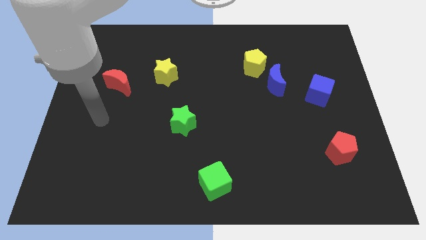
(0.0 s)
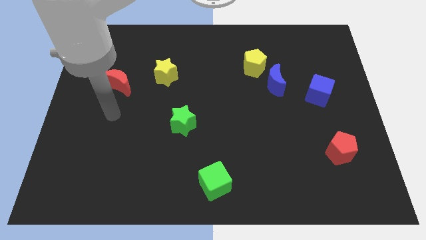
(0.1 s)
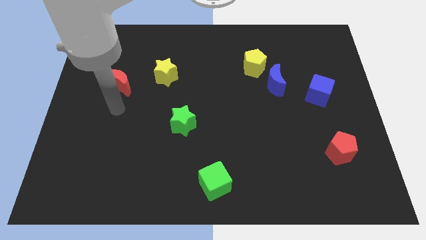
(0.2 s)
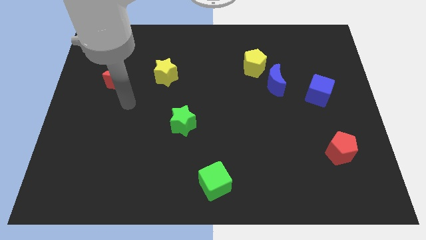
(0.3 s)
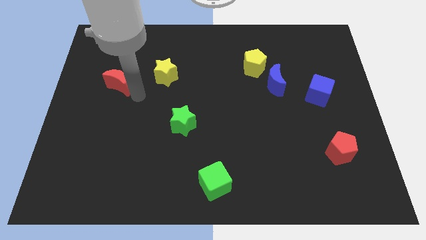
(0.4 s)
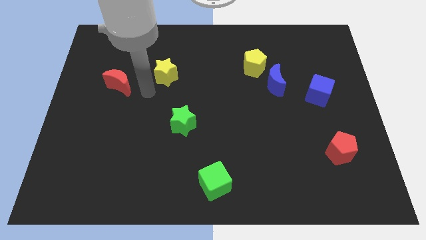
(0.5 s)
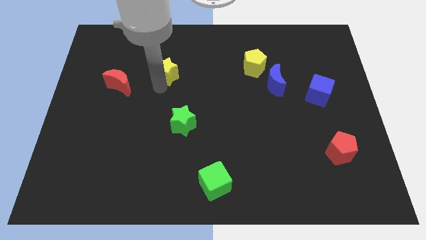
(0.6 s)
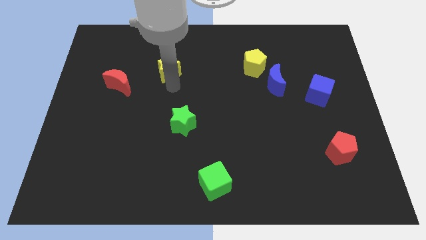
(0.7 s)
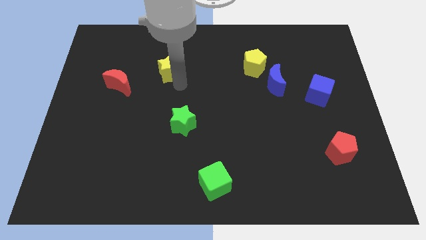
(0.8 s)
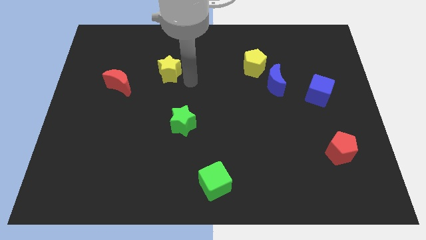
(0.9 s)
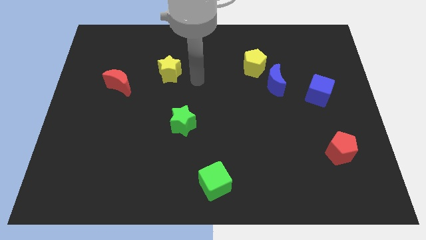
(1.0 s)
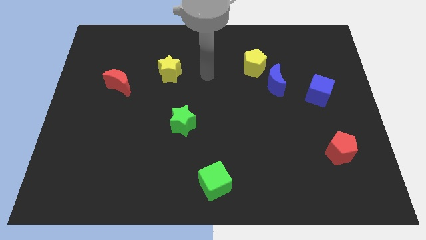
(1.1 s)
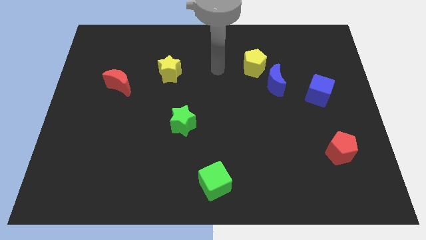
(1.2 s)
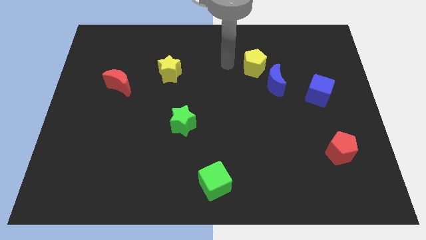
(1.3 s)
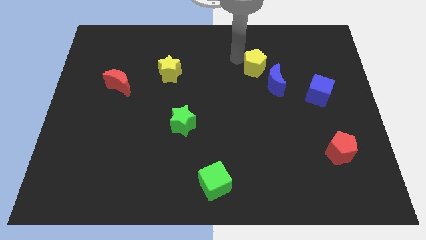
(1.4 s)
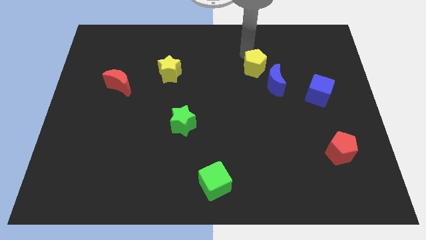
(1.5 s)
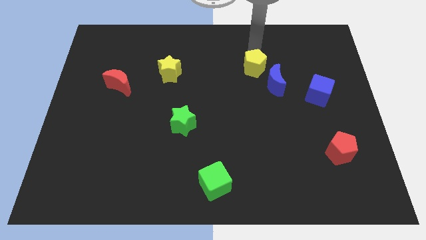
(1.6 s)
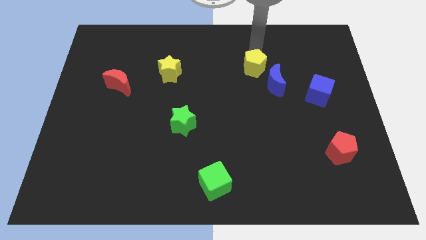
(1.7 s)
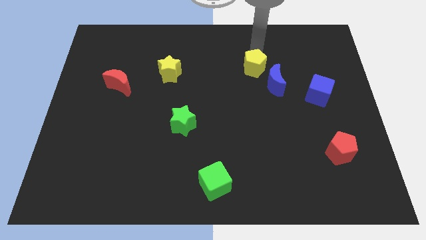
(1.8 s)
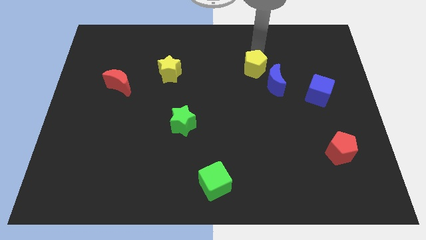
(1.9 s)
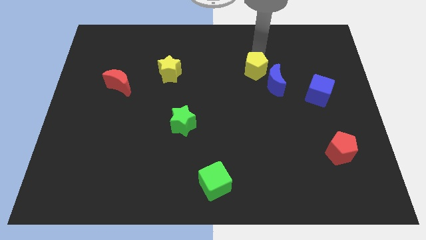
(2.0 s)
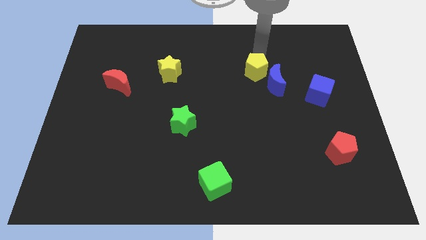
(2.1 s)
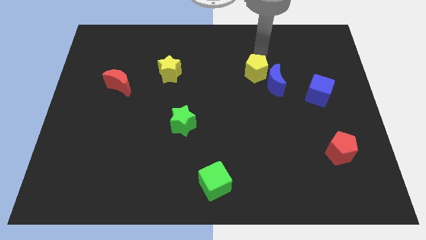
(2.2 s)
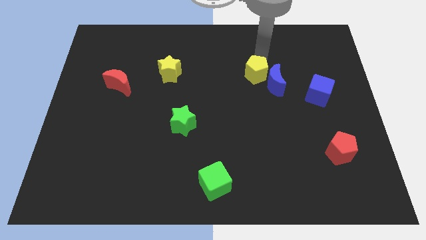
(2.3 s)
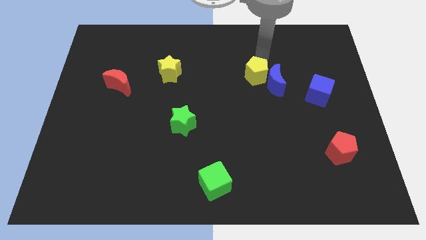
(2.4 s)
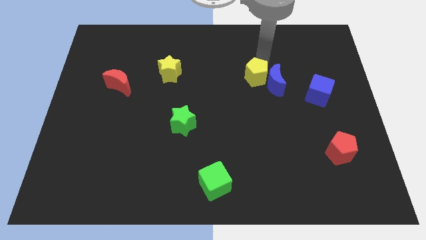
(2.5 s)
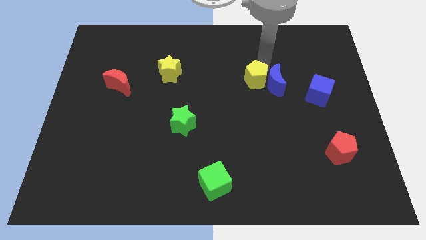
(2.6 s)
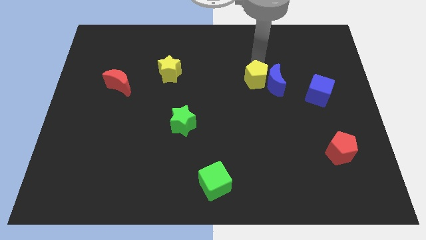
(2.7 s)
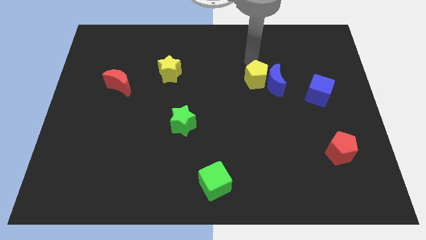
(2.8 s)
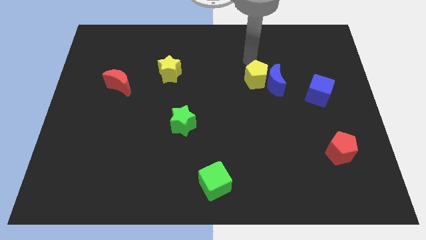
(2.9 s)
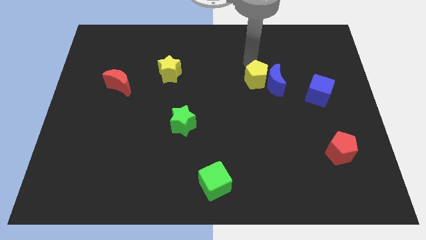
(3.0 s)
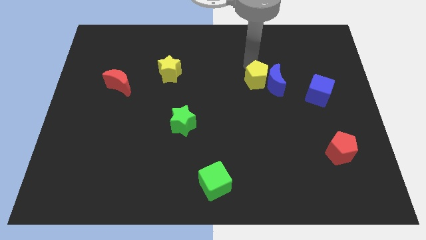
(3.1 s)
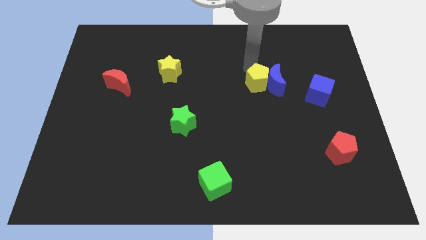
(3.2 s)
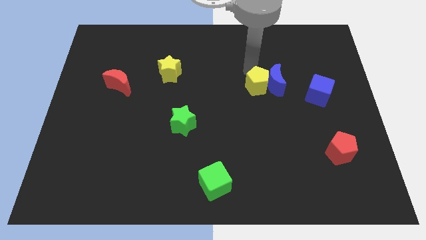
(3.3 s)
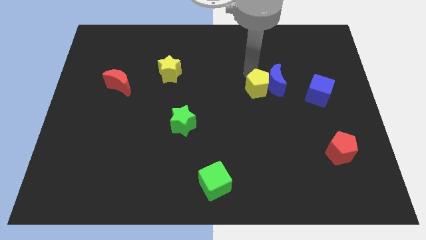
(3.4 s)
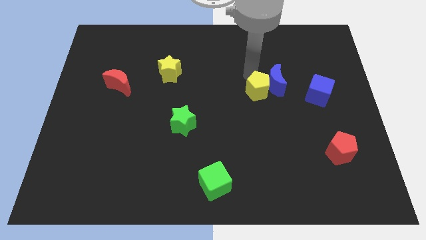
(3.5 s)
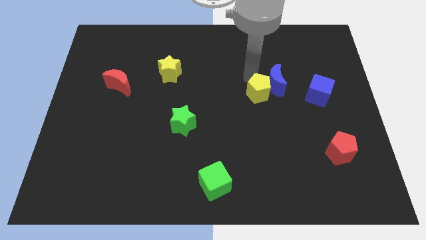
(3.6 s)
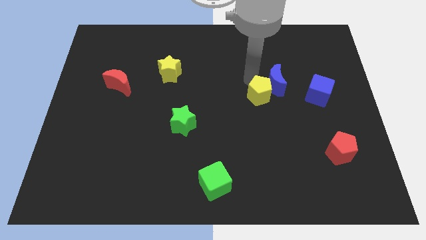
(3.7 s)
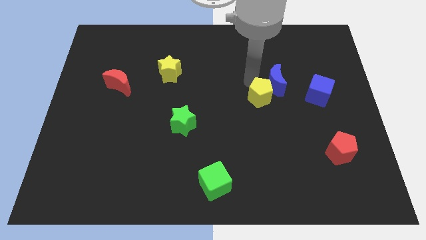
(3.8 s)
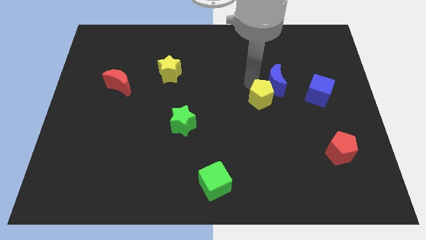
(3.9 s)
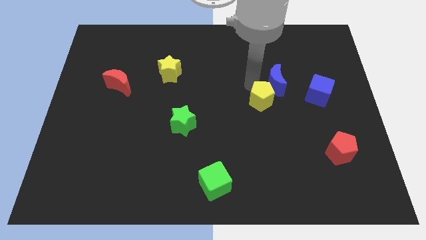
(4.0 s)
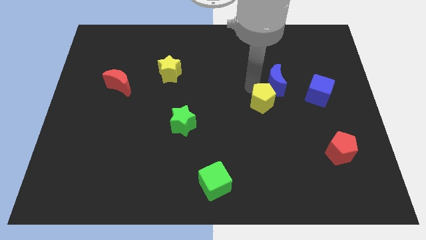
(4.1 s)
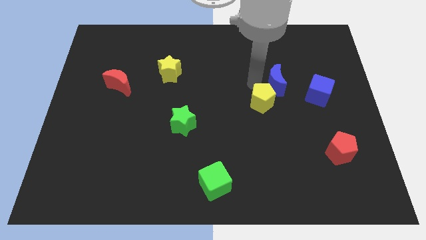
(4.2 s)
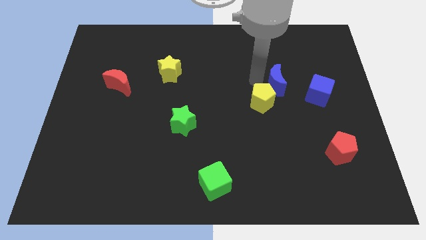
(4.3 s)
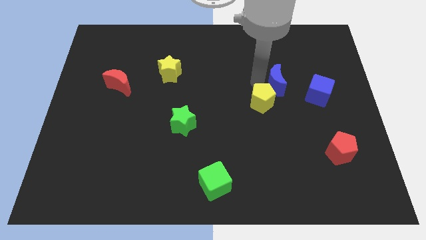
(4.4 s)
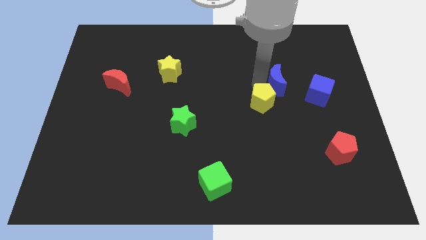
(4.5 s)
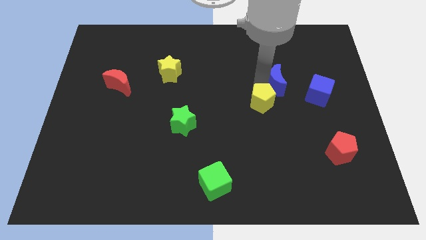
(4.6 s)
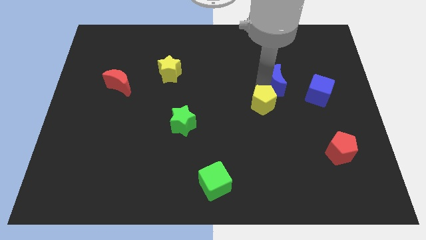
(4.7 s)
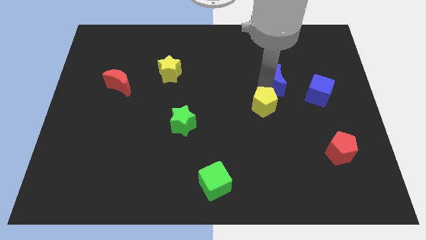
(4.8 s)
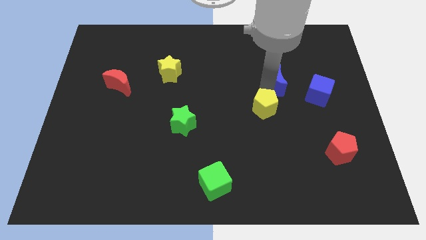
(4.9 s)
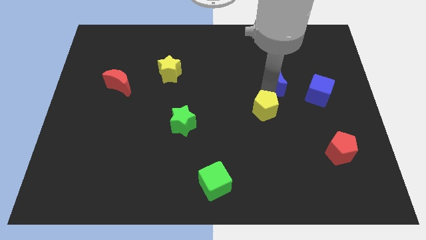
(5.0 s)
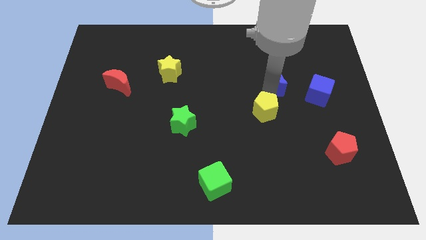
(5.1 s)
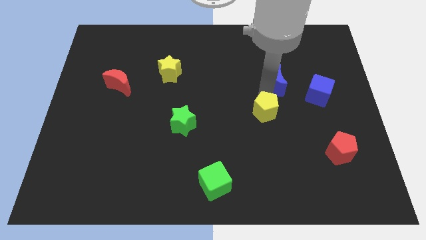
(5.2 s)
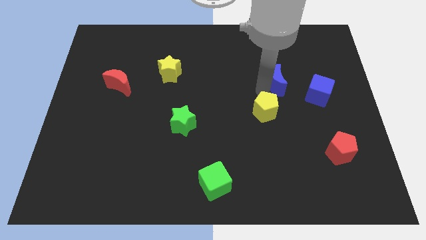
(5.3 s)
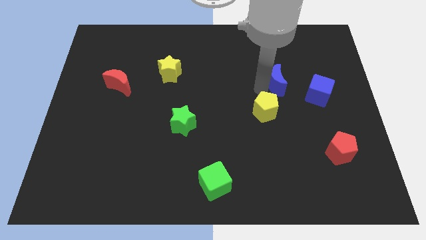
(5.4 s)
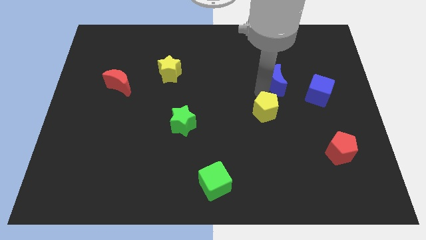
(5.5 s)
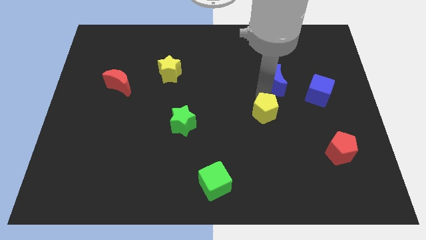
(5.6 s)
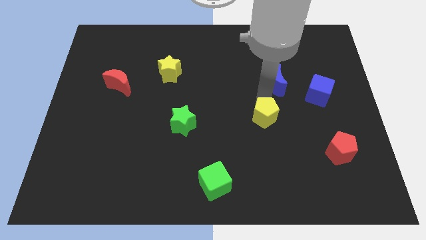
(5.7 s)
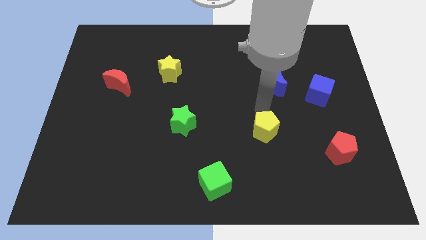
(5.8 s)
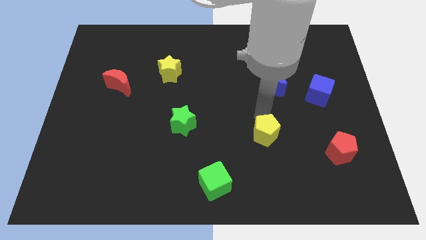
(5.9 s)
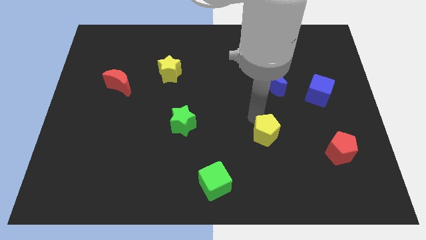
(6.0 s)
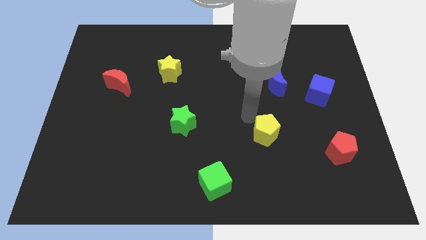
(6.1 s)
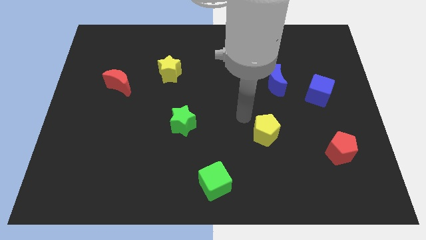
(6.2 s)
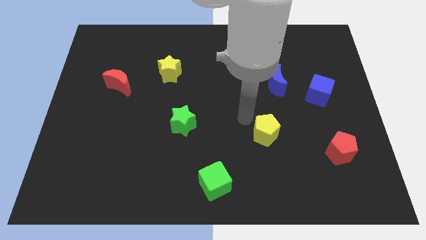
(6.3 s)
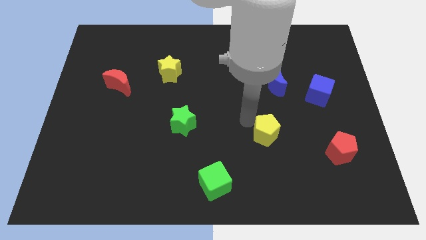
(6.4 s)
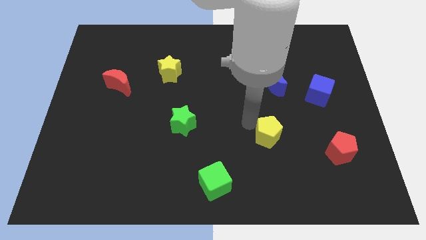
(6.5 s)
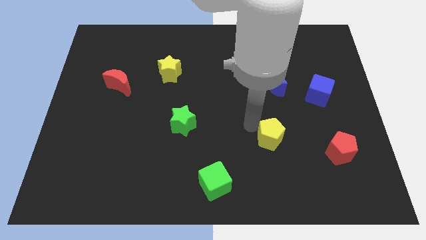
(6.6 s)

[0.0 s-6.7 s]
put the yellow pentagon to the left of the red pentagon

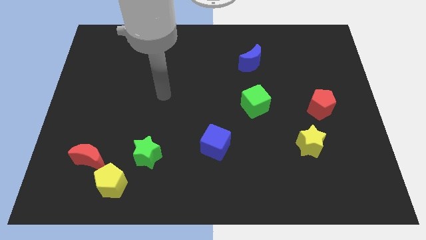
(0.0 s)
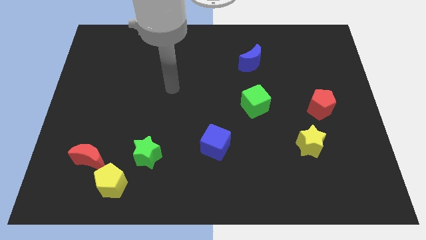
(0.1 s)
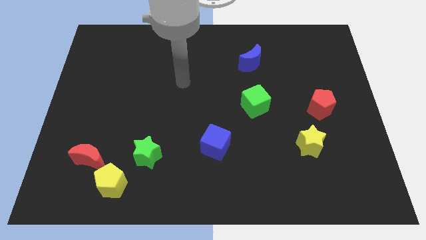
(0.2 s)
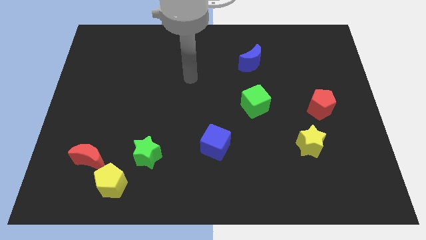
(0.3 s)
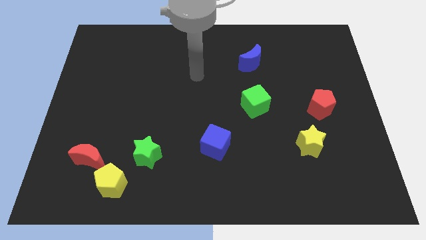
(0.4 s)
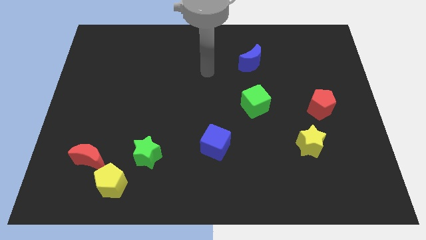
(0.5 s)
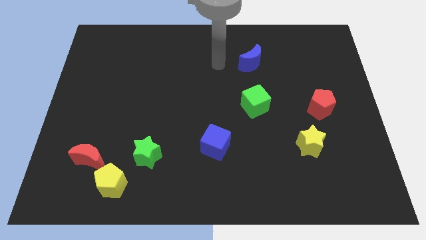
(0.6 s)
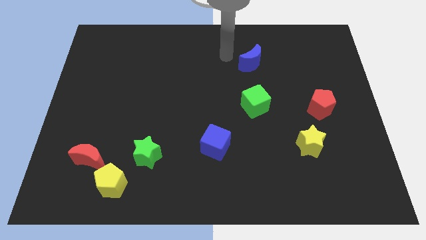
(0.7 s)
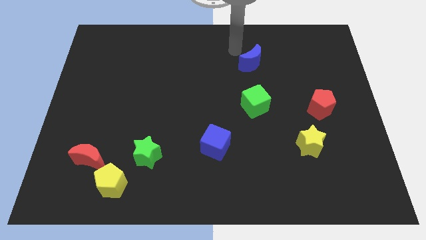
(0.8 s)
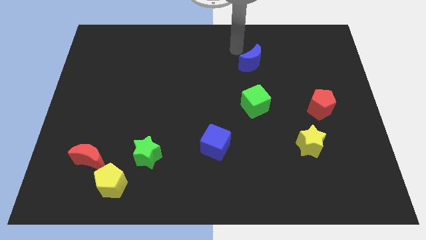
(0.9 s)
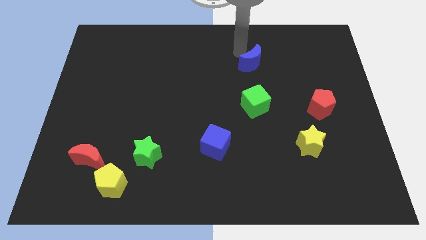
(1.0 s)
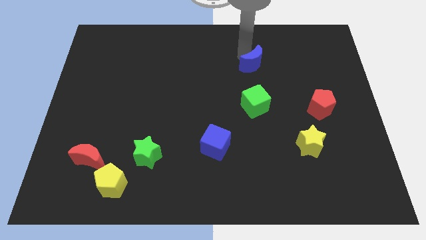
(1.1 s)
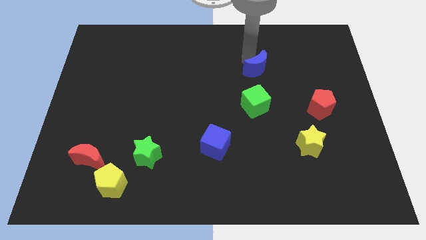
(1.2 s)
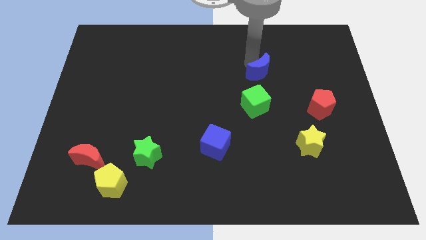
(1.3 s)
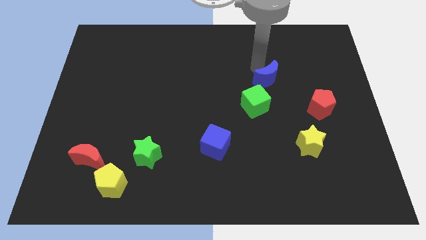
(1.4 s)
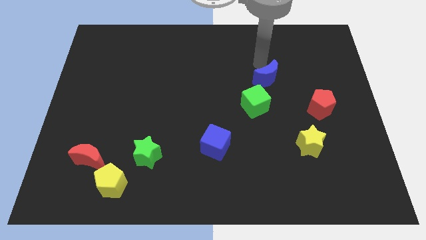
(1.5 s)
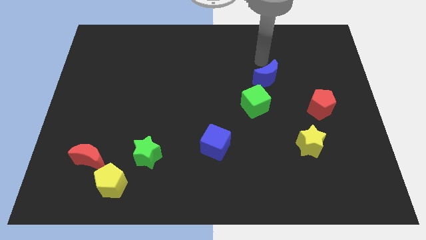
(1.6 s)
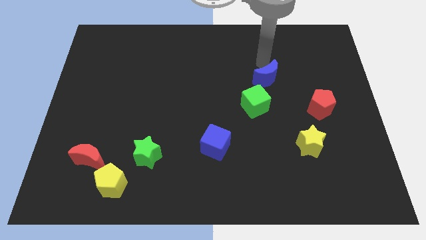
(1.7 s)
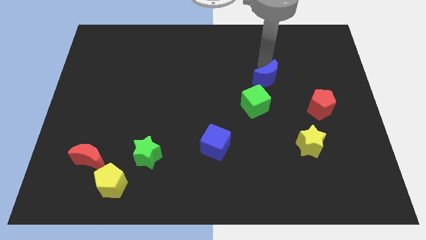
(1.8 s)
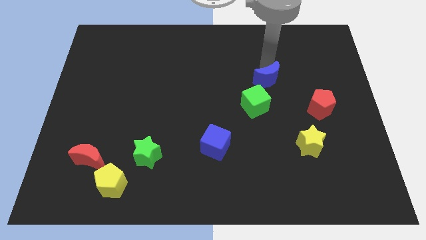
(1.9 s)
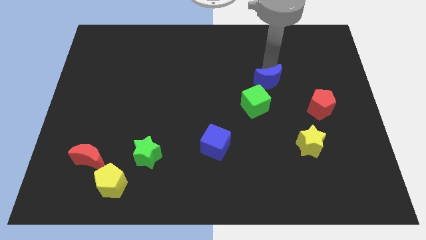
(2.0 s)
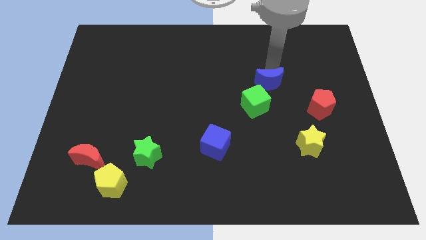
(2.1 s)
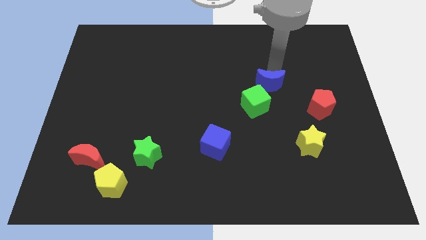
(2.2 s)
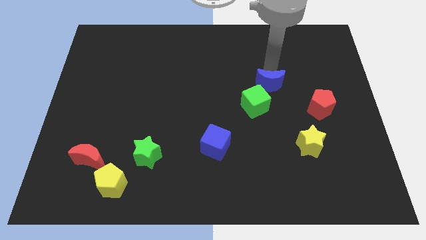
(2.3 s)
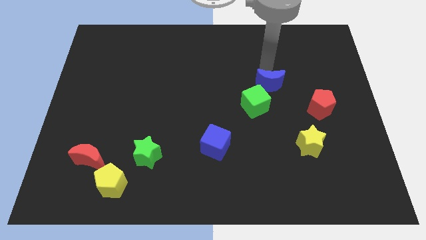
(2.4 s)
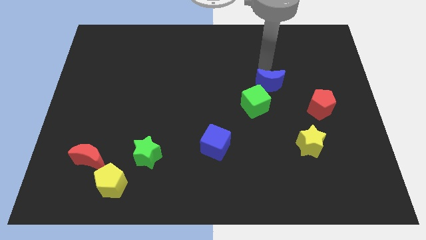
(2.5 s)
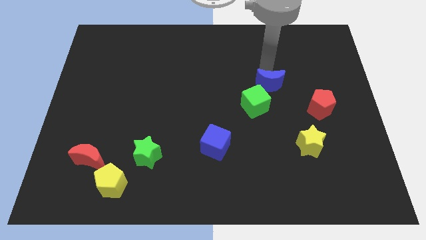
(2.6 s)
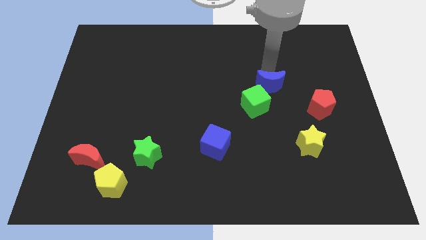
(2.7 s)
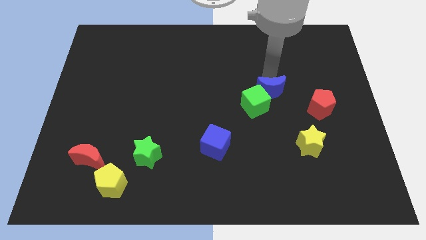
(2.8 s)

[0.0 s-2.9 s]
move the blue moon to the left of the red pentagon
